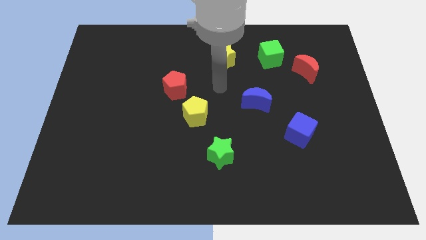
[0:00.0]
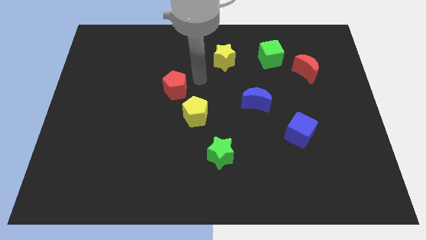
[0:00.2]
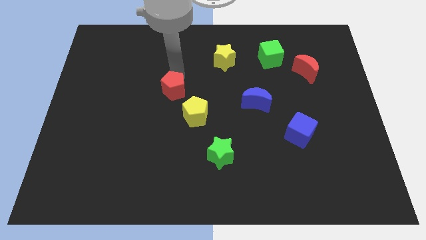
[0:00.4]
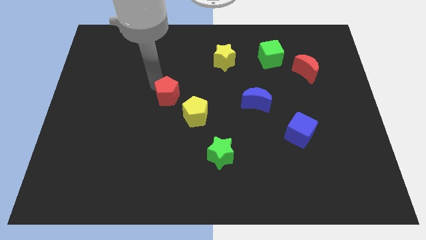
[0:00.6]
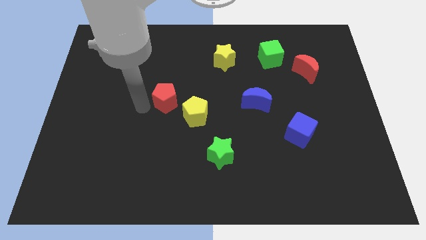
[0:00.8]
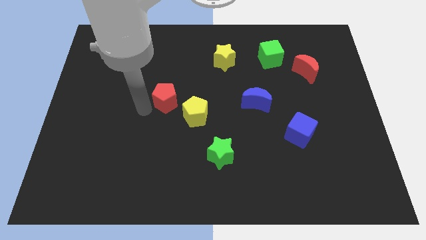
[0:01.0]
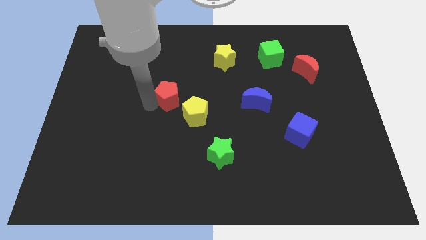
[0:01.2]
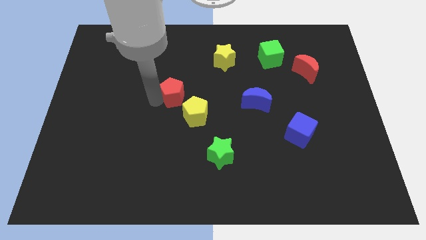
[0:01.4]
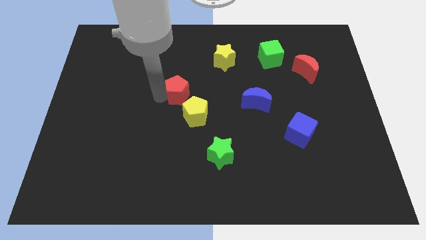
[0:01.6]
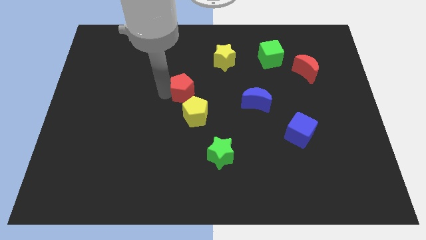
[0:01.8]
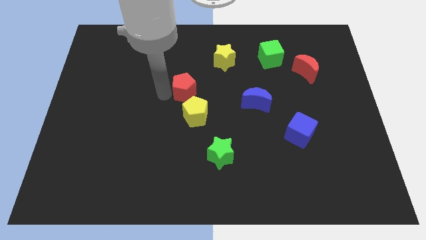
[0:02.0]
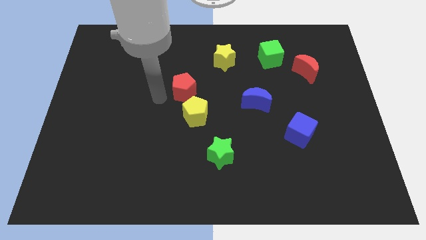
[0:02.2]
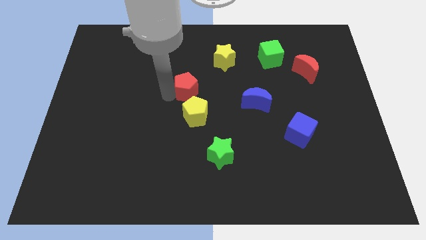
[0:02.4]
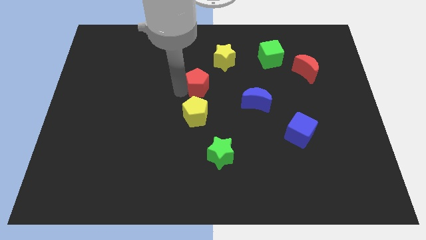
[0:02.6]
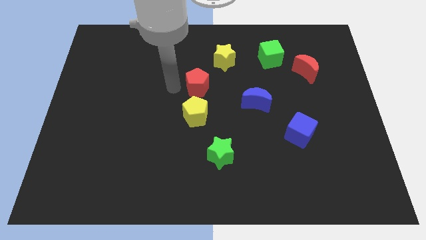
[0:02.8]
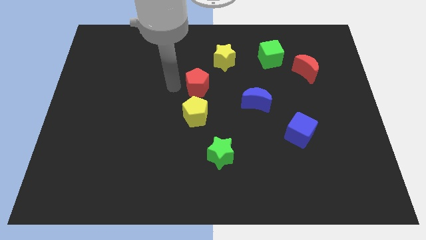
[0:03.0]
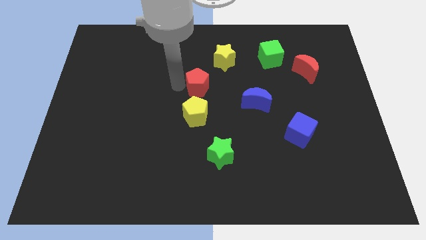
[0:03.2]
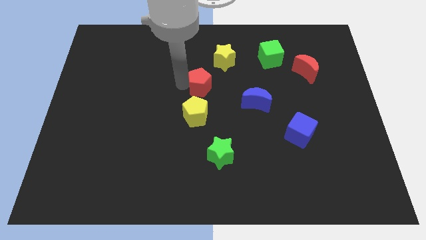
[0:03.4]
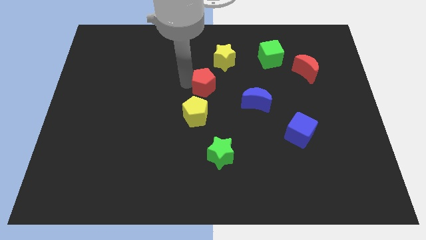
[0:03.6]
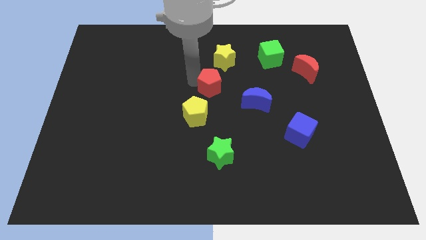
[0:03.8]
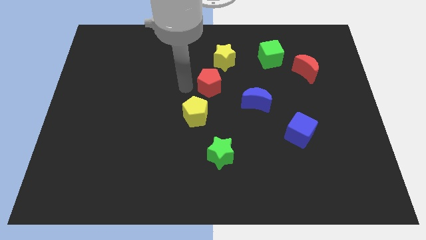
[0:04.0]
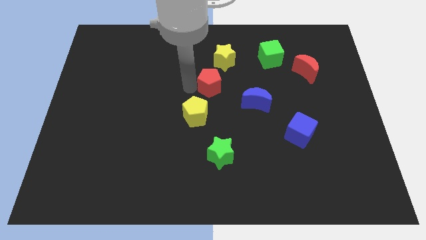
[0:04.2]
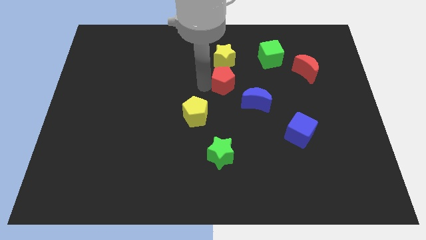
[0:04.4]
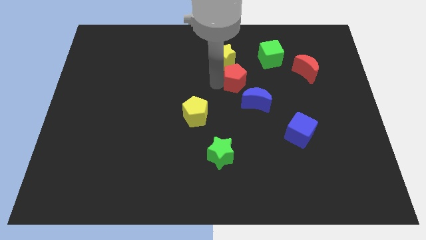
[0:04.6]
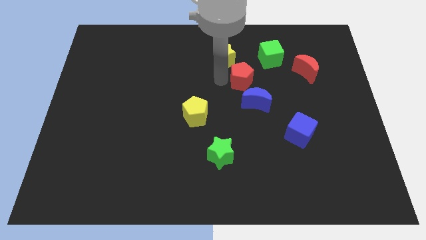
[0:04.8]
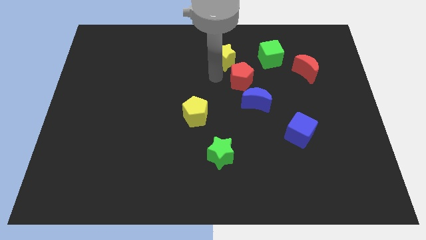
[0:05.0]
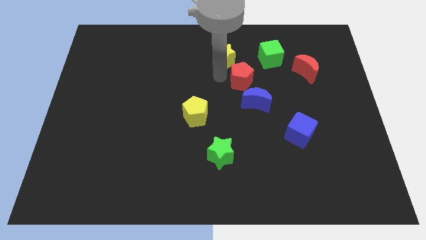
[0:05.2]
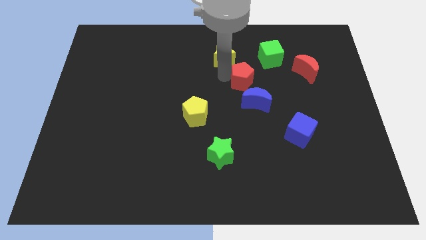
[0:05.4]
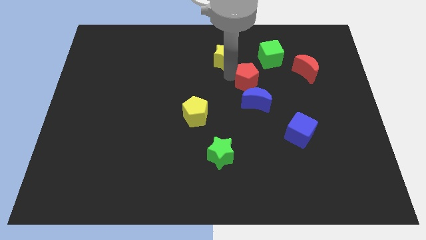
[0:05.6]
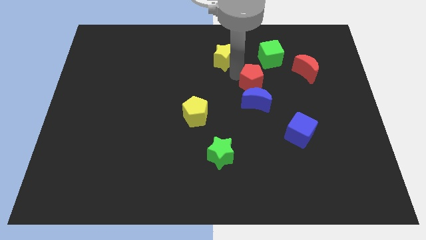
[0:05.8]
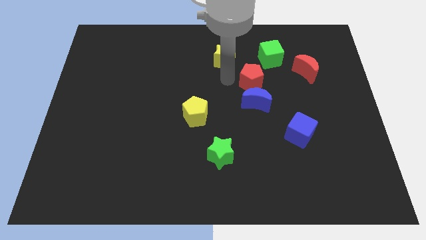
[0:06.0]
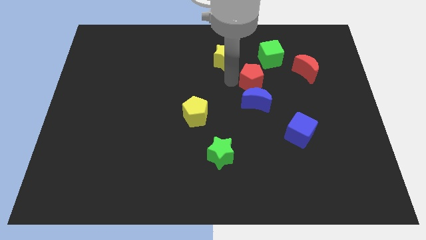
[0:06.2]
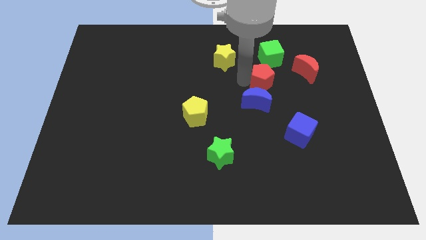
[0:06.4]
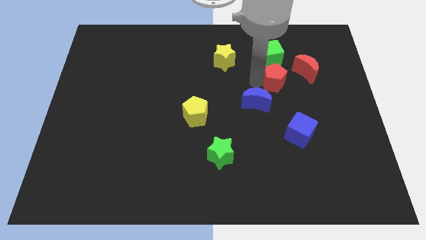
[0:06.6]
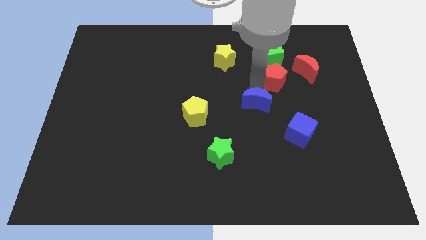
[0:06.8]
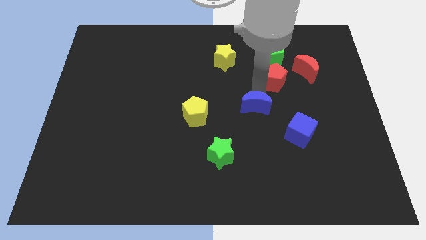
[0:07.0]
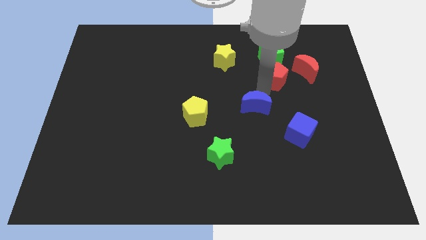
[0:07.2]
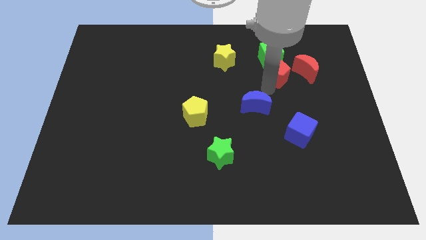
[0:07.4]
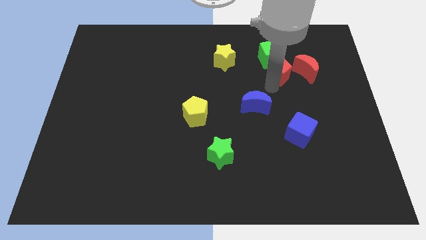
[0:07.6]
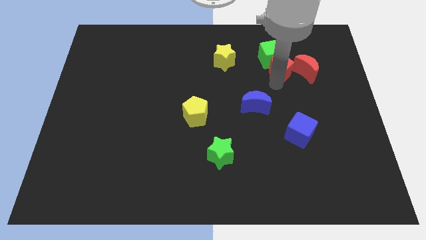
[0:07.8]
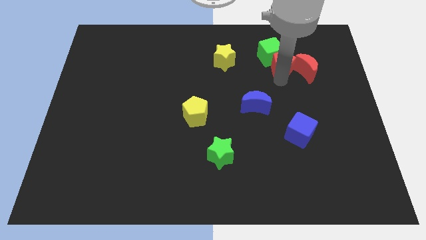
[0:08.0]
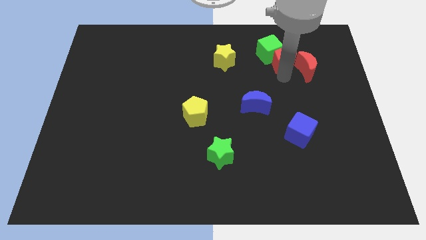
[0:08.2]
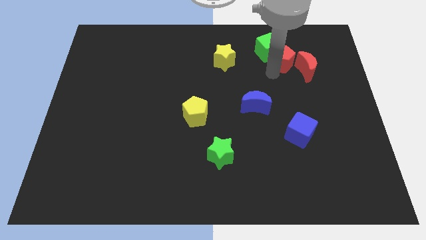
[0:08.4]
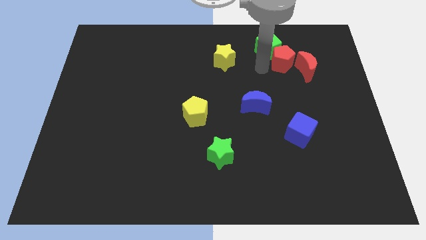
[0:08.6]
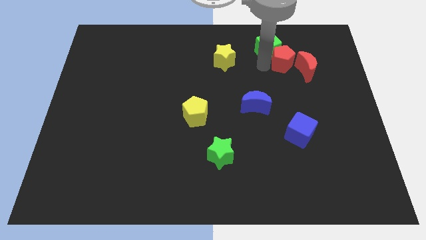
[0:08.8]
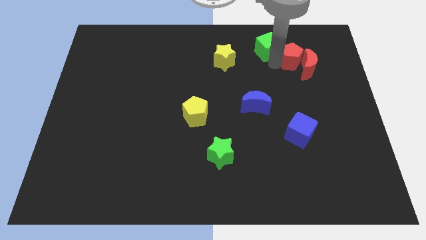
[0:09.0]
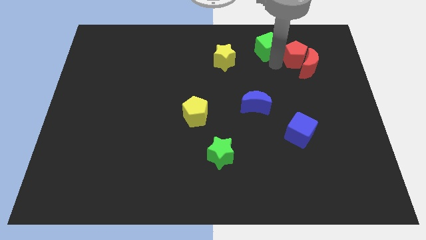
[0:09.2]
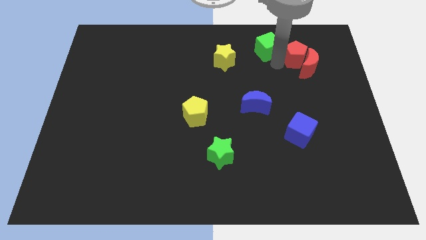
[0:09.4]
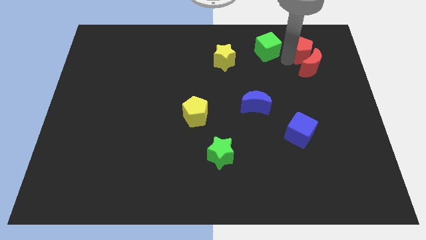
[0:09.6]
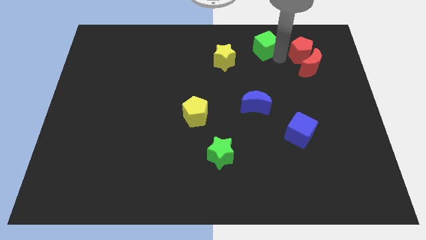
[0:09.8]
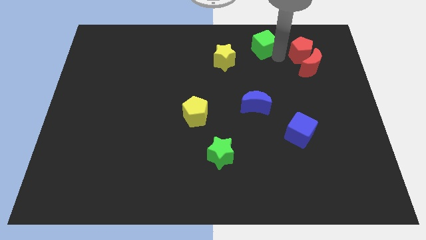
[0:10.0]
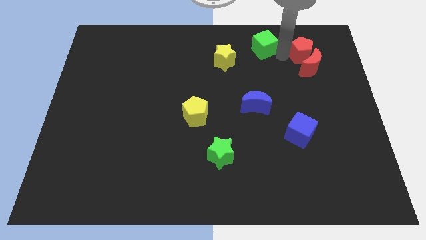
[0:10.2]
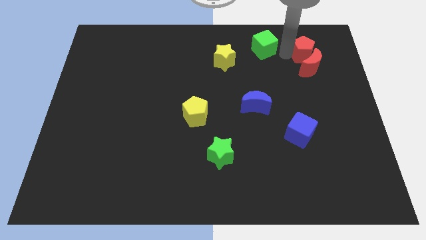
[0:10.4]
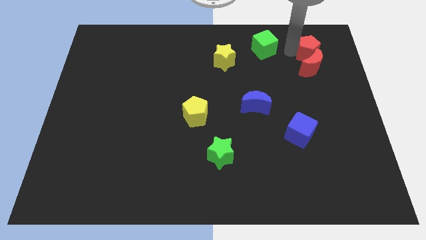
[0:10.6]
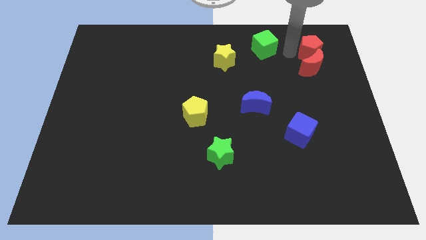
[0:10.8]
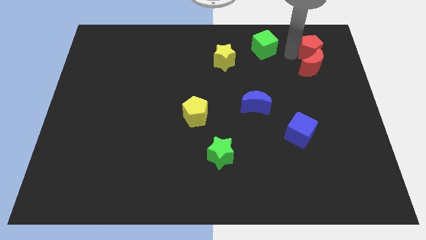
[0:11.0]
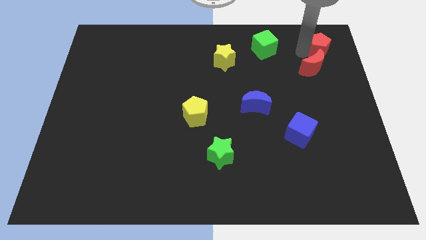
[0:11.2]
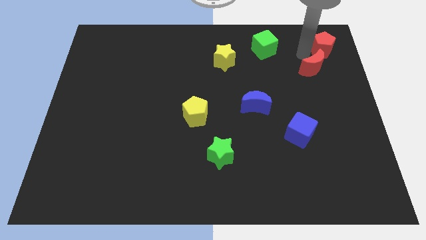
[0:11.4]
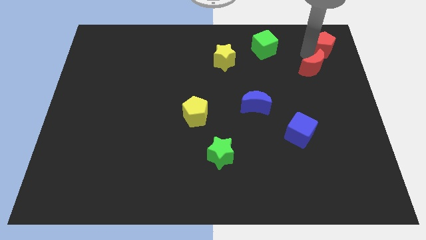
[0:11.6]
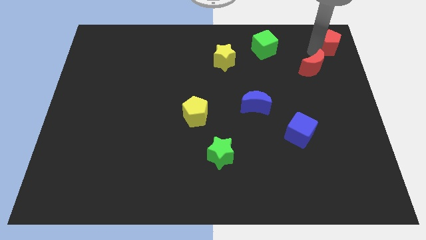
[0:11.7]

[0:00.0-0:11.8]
slide the red pentagon to the top right

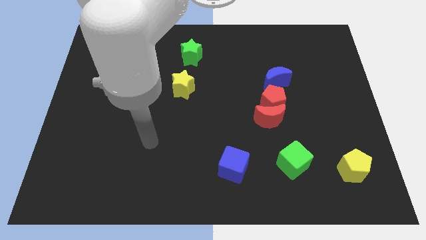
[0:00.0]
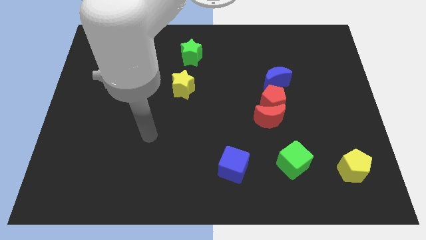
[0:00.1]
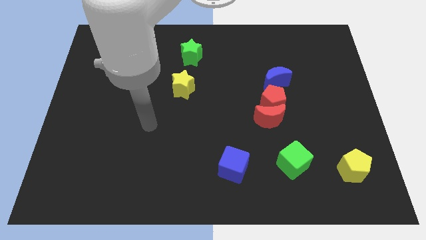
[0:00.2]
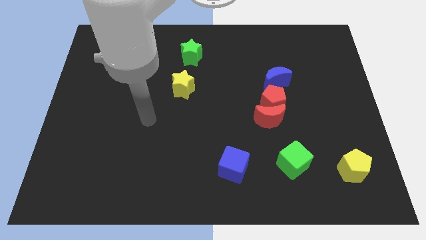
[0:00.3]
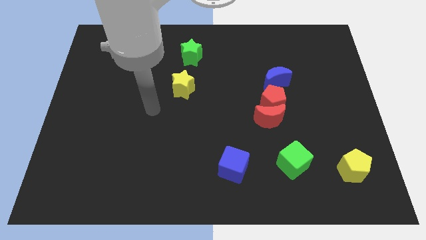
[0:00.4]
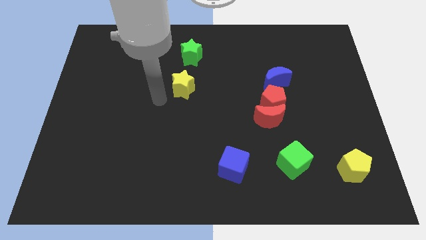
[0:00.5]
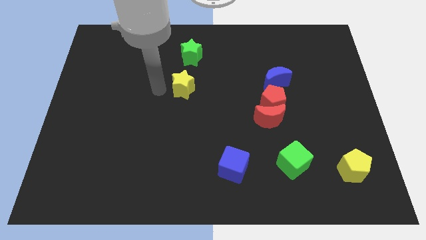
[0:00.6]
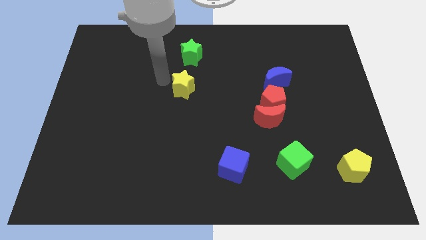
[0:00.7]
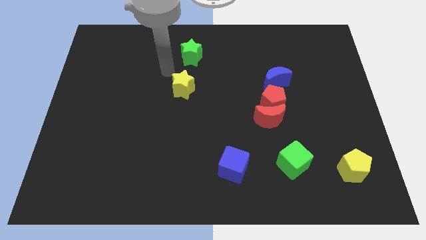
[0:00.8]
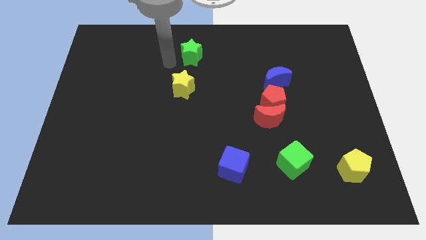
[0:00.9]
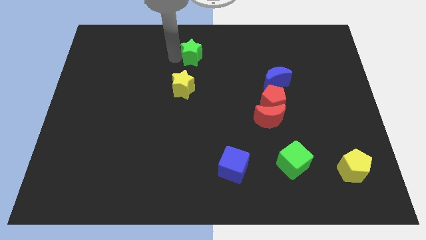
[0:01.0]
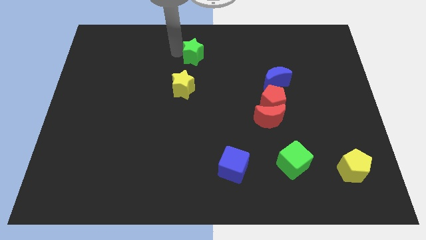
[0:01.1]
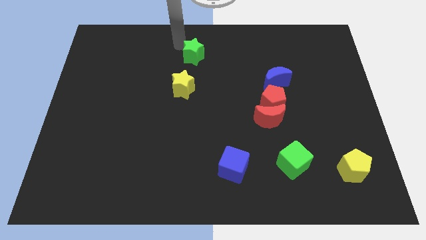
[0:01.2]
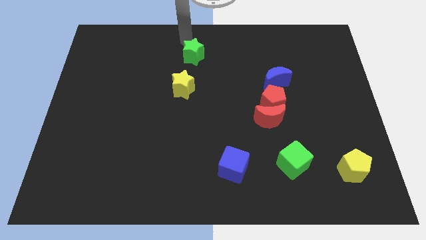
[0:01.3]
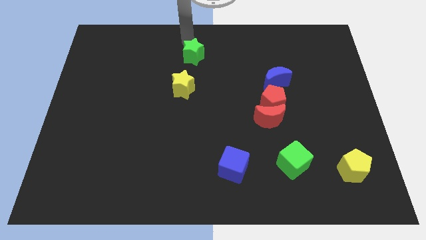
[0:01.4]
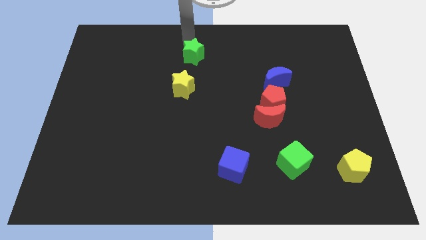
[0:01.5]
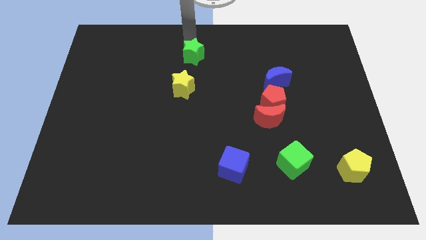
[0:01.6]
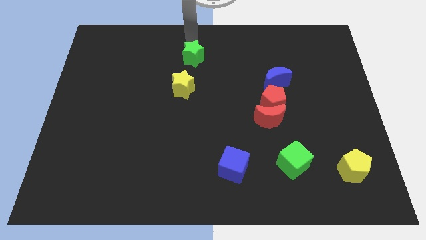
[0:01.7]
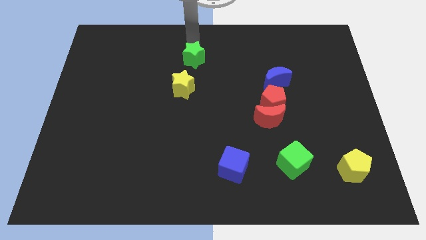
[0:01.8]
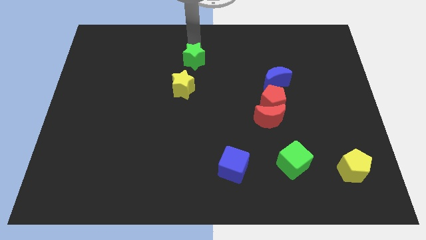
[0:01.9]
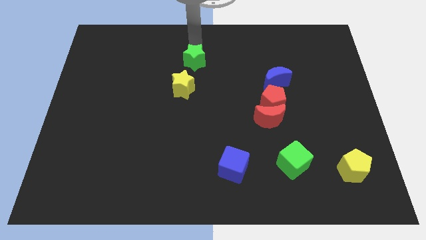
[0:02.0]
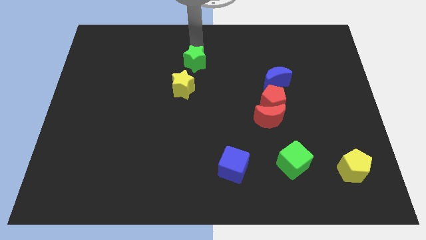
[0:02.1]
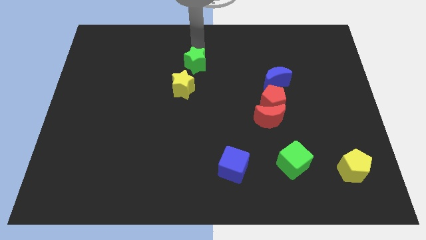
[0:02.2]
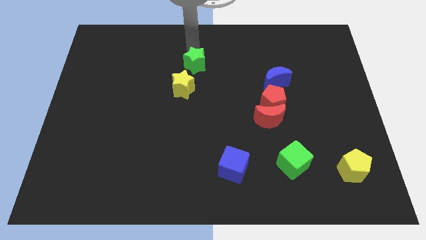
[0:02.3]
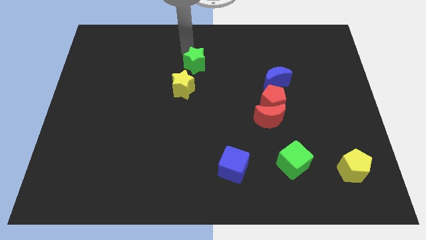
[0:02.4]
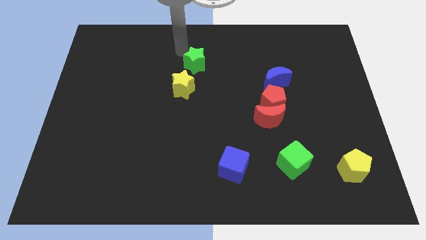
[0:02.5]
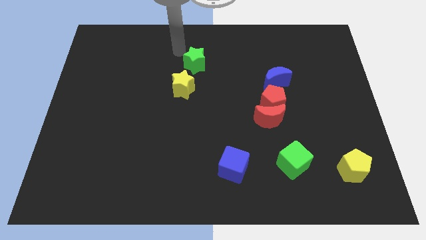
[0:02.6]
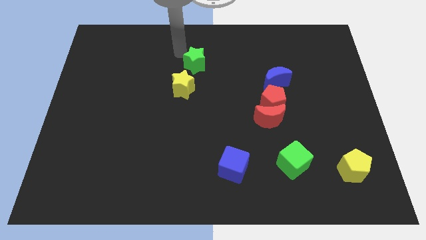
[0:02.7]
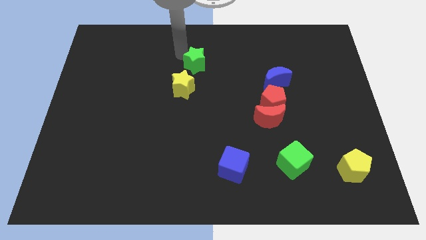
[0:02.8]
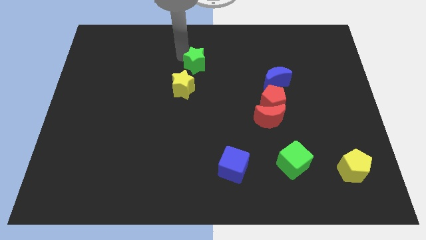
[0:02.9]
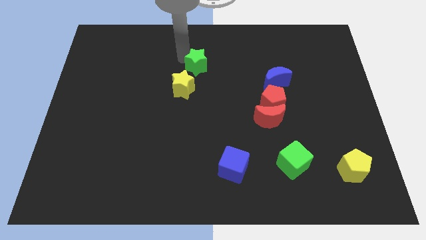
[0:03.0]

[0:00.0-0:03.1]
slide the green star to the middle of the board
